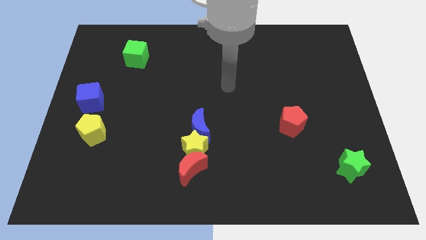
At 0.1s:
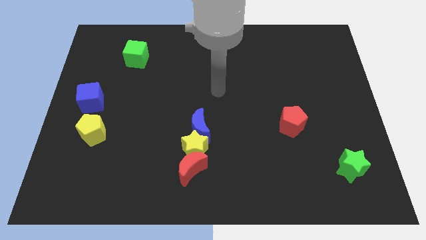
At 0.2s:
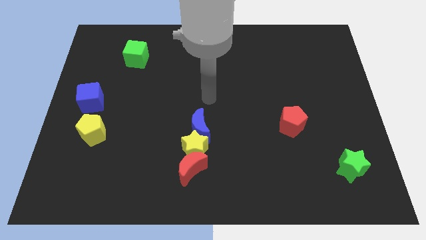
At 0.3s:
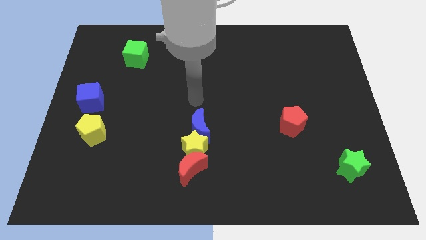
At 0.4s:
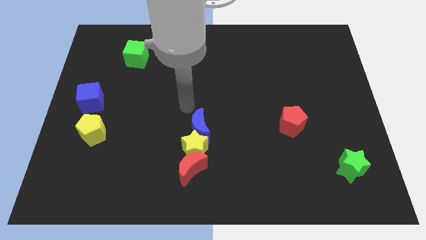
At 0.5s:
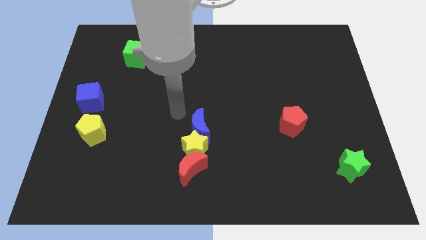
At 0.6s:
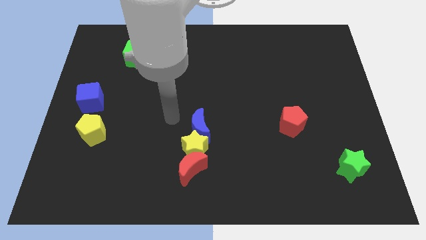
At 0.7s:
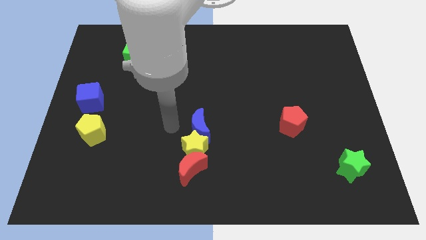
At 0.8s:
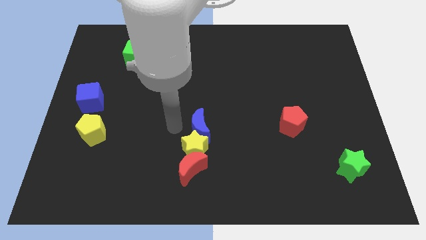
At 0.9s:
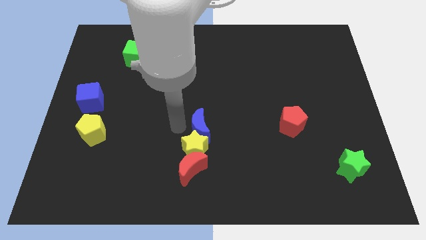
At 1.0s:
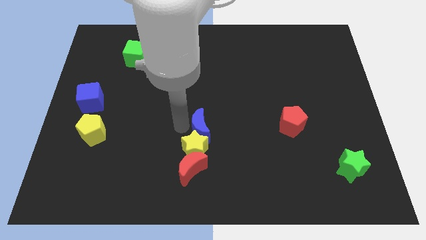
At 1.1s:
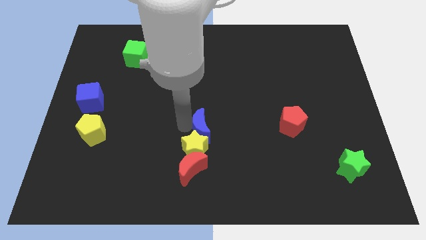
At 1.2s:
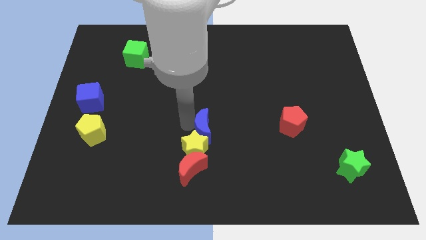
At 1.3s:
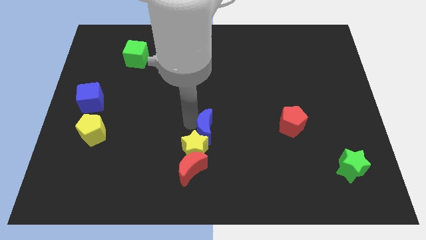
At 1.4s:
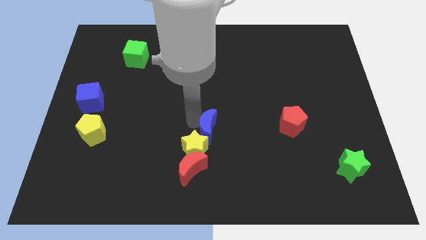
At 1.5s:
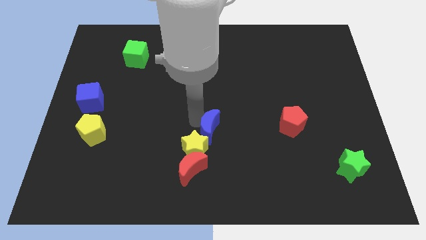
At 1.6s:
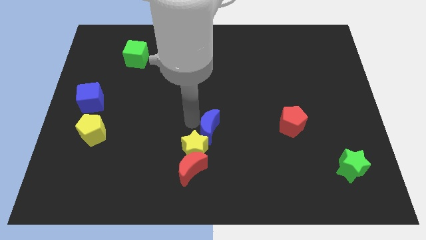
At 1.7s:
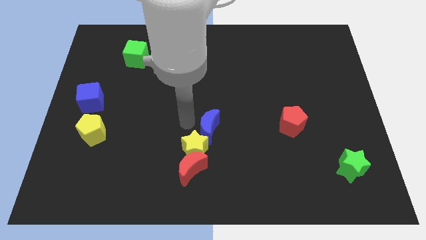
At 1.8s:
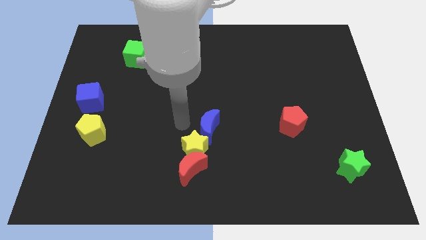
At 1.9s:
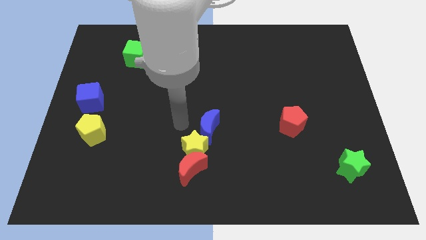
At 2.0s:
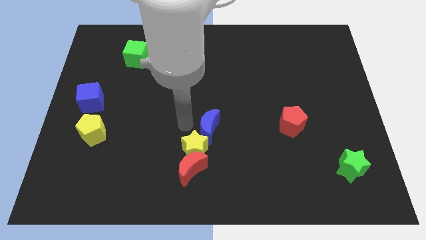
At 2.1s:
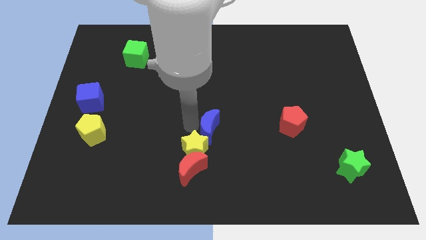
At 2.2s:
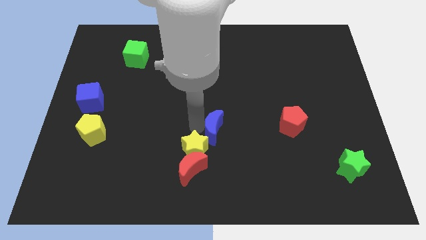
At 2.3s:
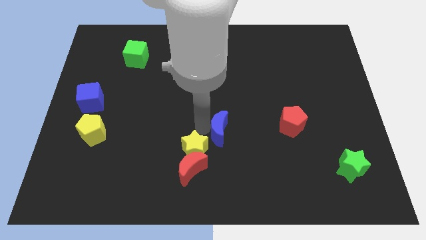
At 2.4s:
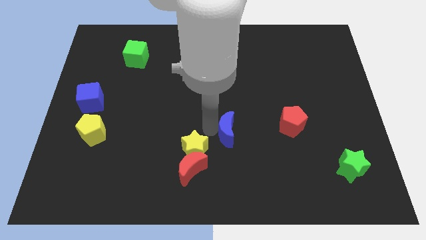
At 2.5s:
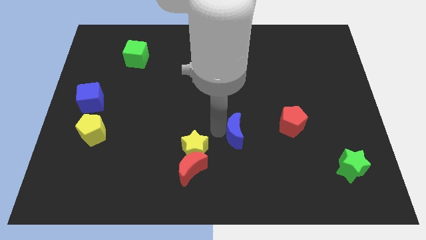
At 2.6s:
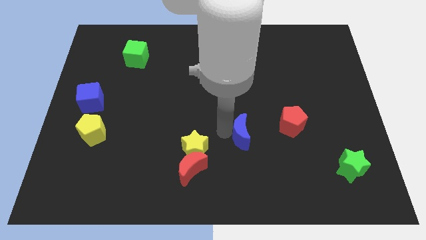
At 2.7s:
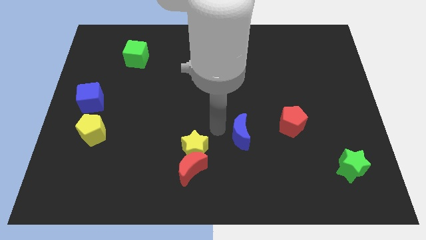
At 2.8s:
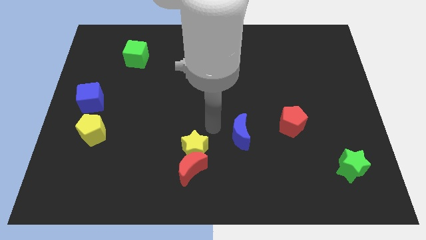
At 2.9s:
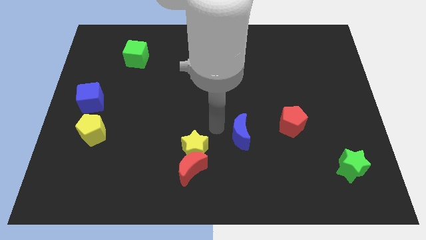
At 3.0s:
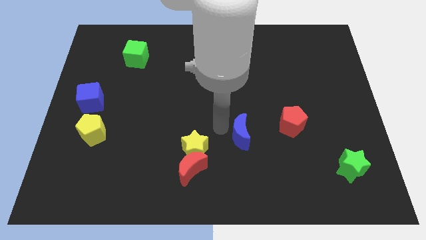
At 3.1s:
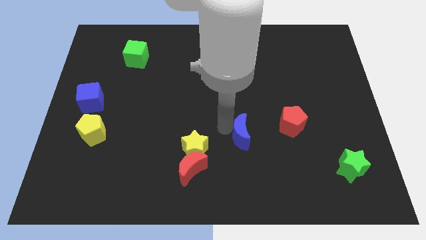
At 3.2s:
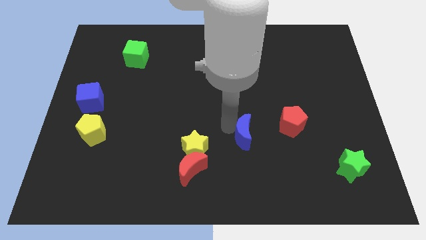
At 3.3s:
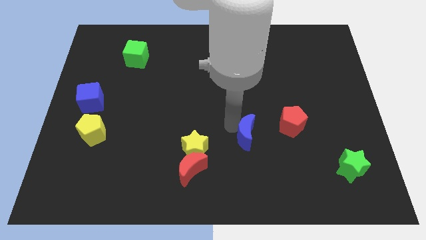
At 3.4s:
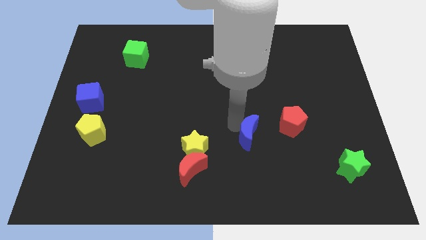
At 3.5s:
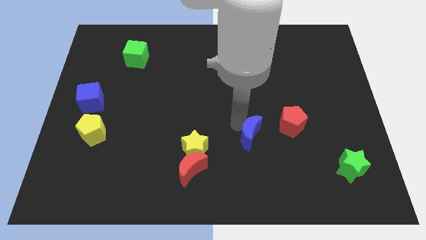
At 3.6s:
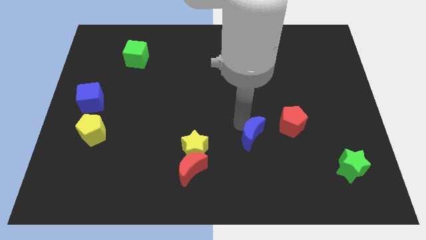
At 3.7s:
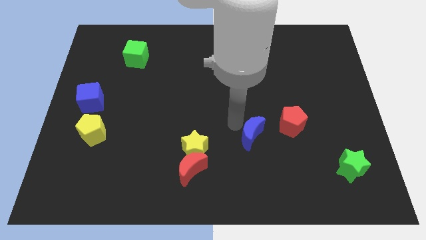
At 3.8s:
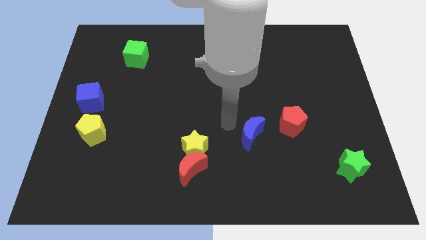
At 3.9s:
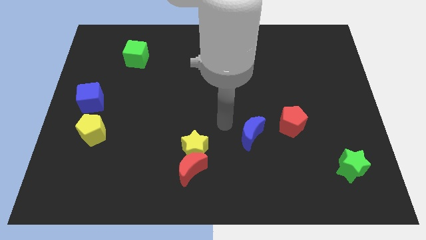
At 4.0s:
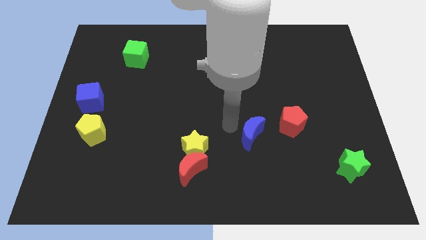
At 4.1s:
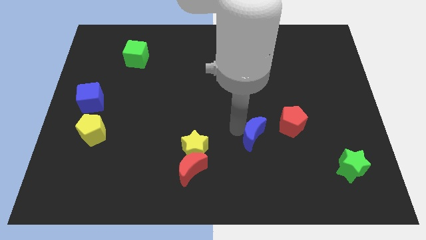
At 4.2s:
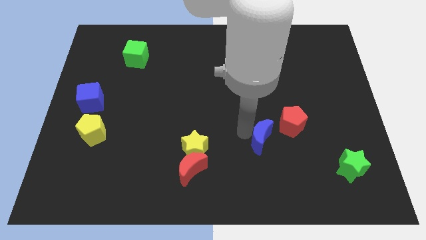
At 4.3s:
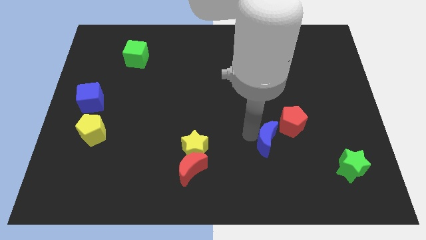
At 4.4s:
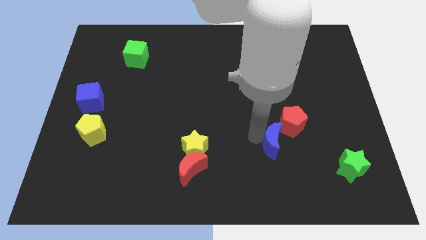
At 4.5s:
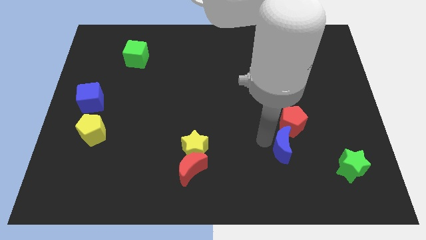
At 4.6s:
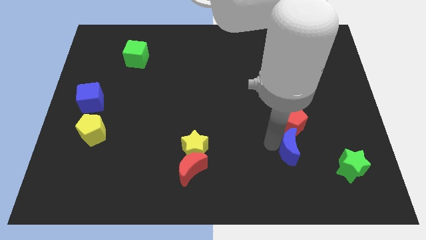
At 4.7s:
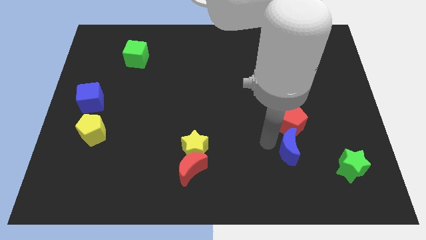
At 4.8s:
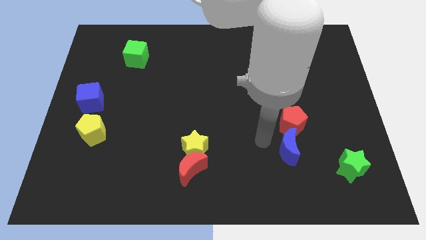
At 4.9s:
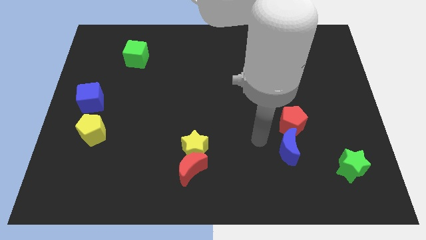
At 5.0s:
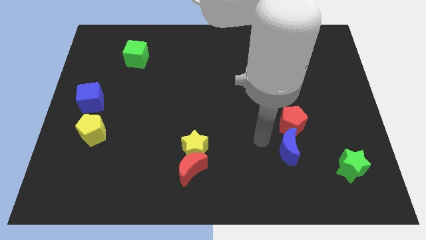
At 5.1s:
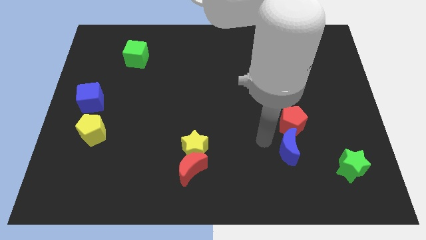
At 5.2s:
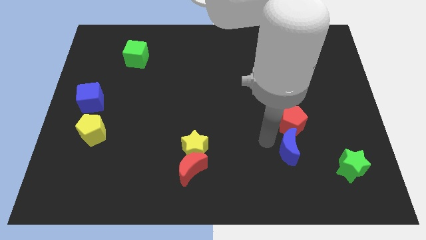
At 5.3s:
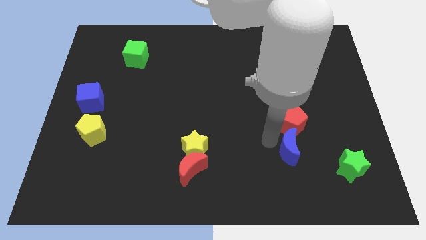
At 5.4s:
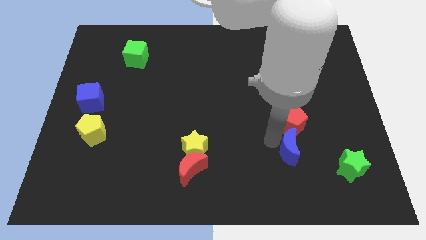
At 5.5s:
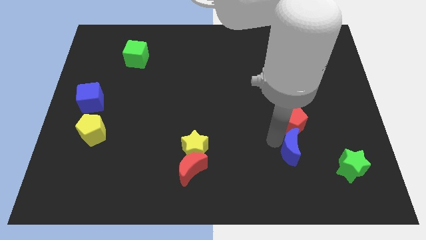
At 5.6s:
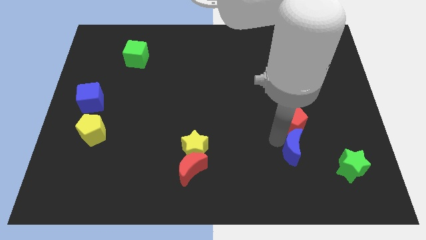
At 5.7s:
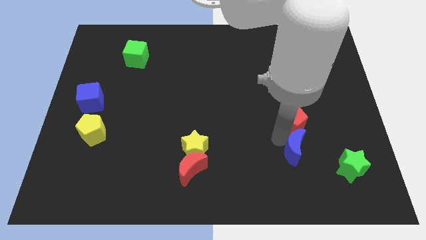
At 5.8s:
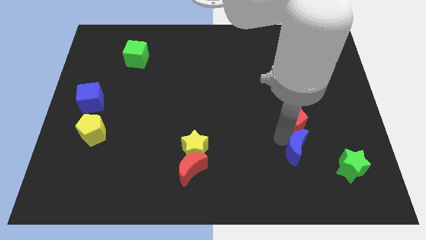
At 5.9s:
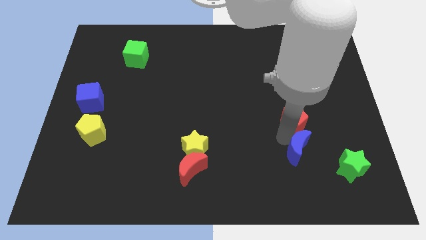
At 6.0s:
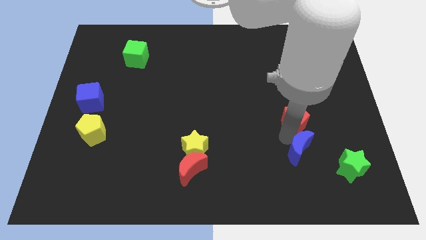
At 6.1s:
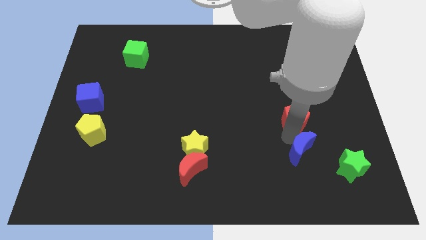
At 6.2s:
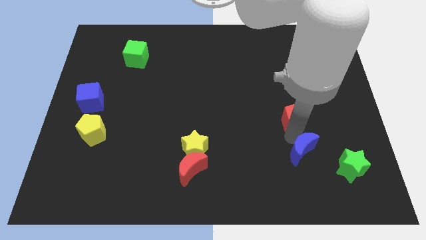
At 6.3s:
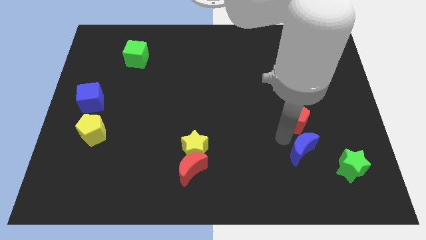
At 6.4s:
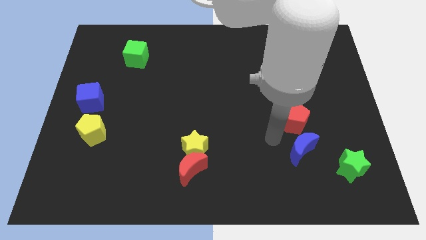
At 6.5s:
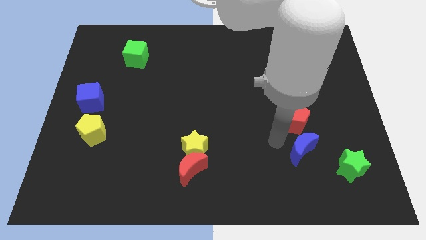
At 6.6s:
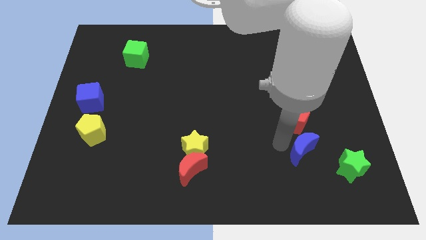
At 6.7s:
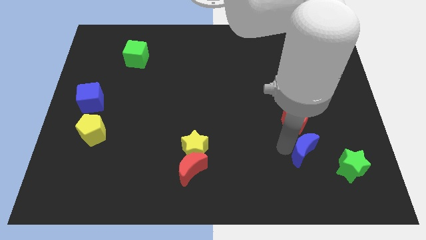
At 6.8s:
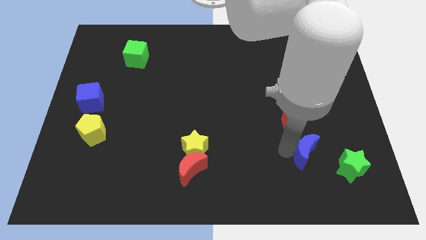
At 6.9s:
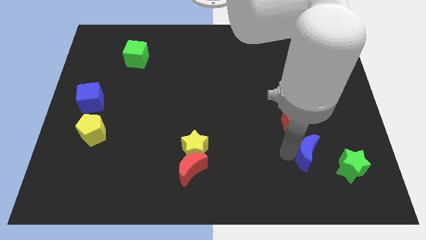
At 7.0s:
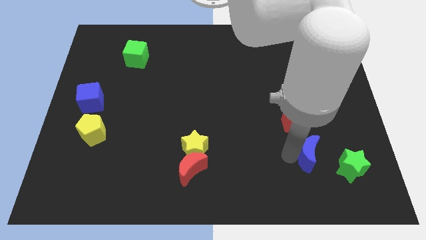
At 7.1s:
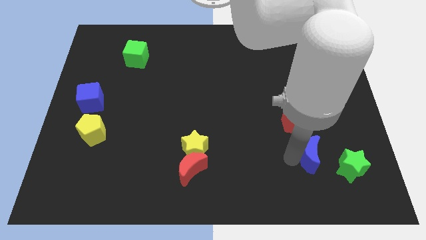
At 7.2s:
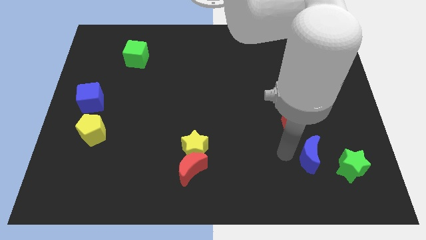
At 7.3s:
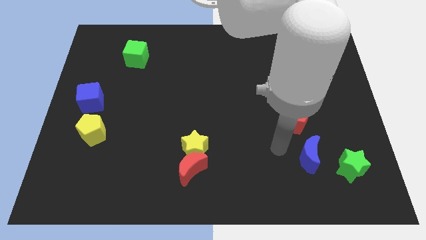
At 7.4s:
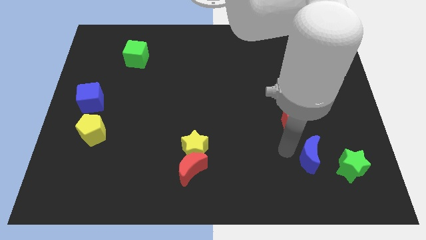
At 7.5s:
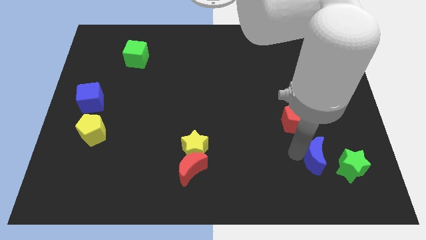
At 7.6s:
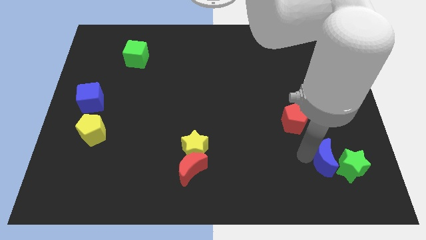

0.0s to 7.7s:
move the blue moon close to the green star
